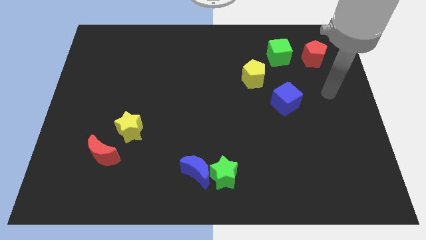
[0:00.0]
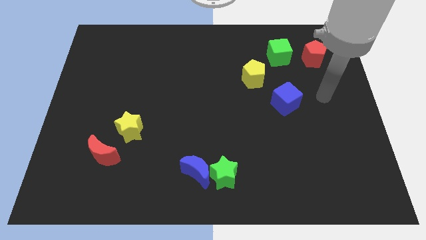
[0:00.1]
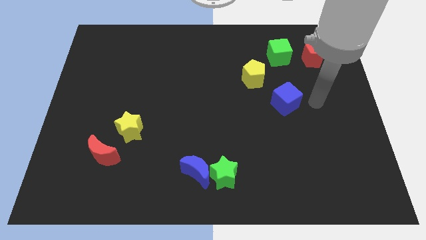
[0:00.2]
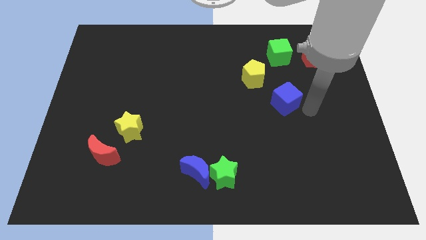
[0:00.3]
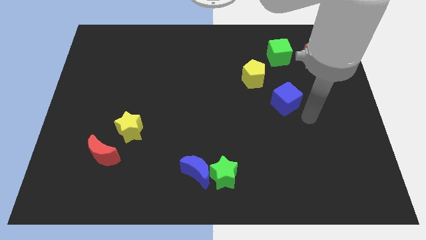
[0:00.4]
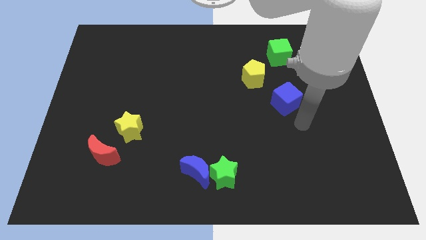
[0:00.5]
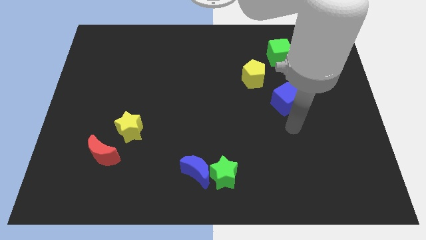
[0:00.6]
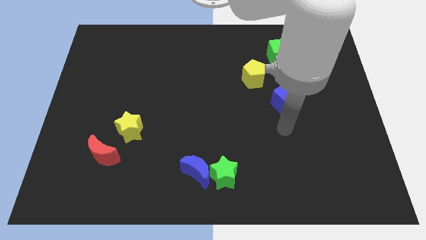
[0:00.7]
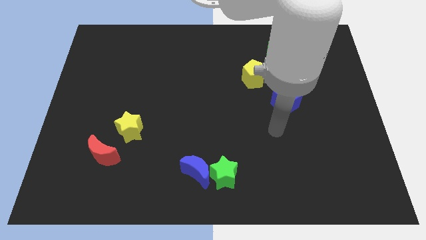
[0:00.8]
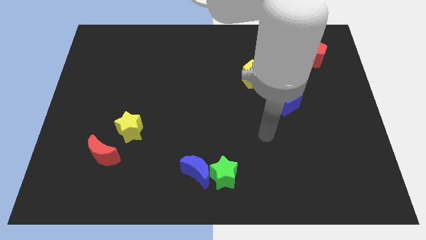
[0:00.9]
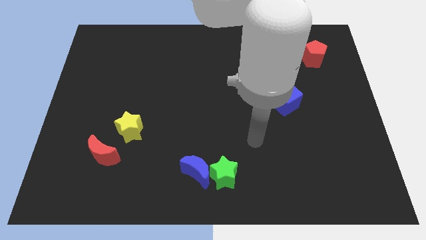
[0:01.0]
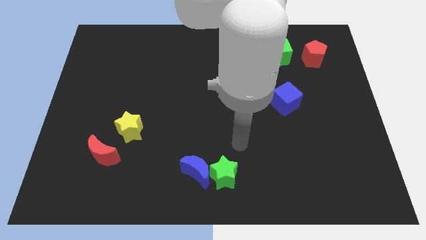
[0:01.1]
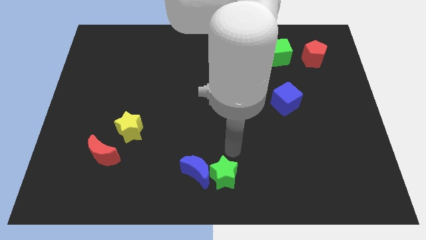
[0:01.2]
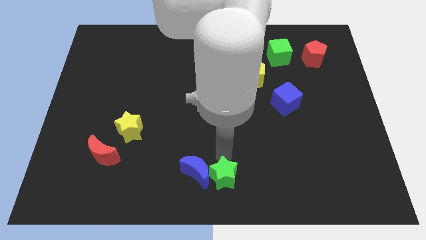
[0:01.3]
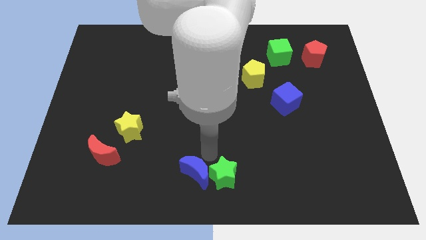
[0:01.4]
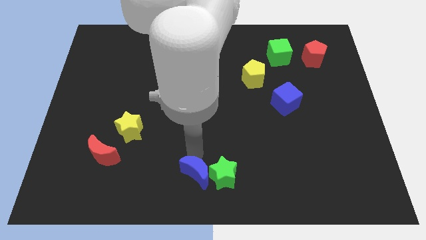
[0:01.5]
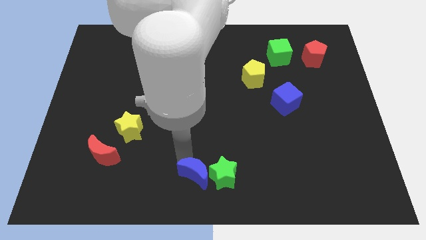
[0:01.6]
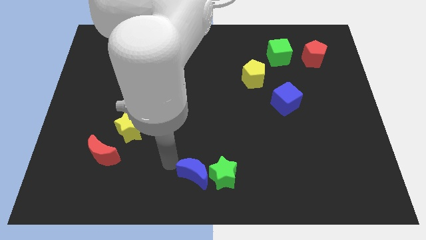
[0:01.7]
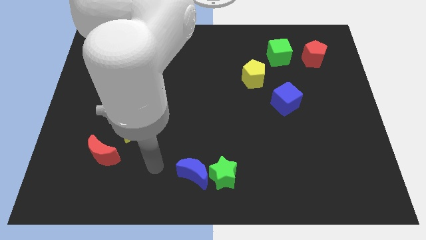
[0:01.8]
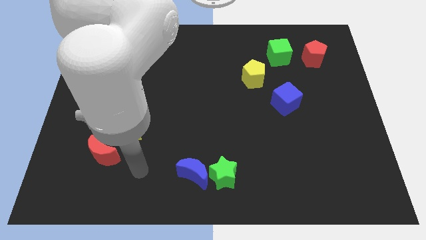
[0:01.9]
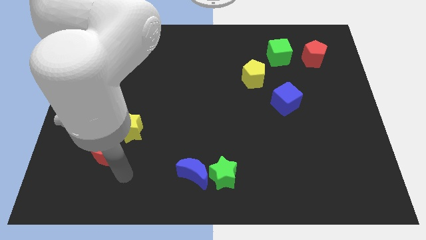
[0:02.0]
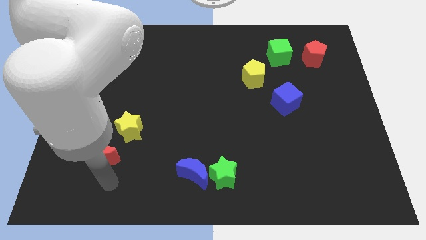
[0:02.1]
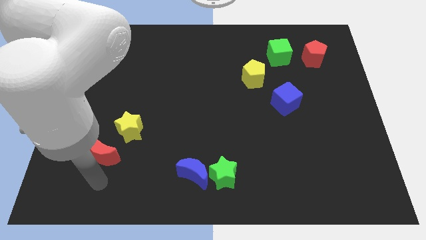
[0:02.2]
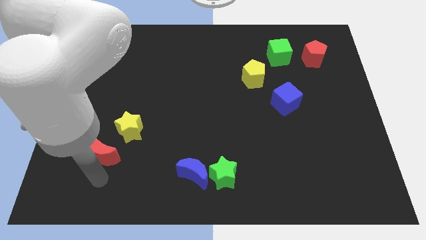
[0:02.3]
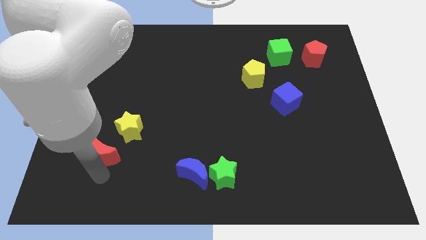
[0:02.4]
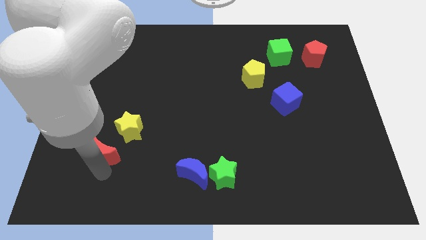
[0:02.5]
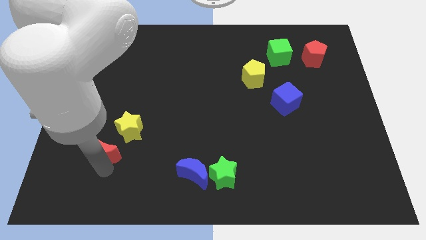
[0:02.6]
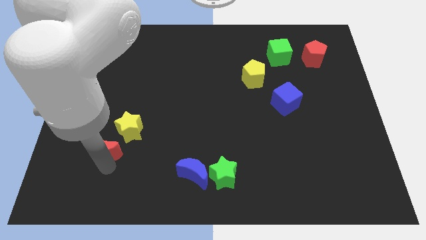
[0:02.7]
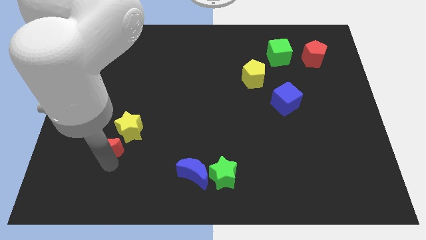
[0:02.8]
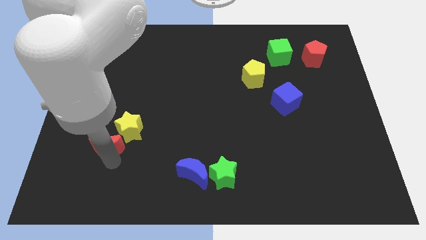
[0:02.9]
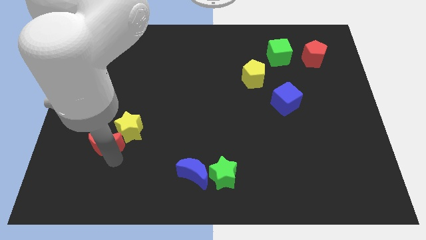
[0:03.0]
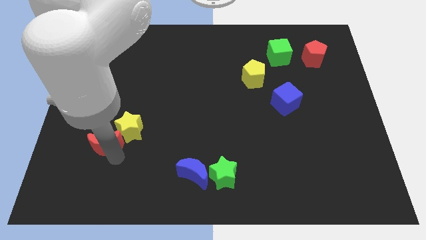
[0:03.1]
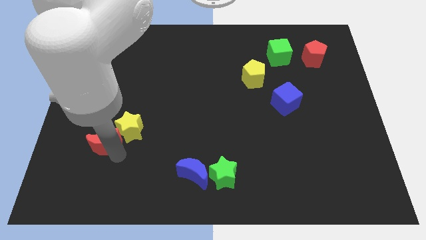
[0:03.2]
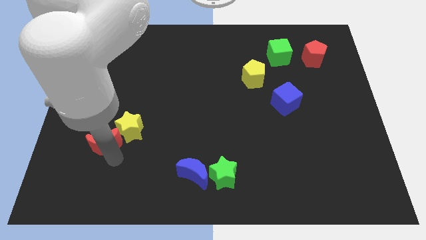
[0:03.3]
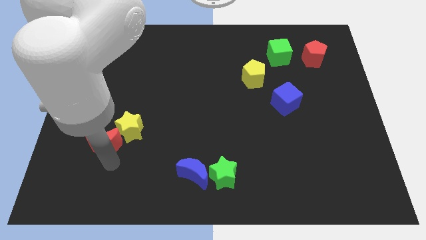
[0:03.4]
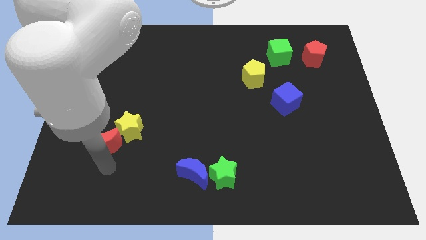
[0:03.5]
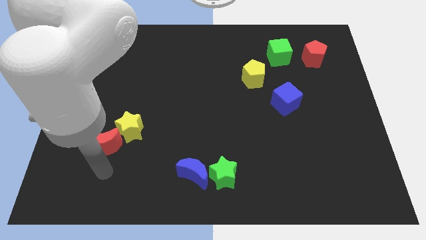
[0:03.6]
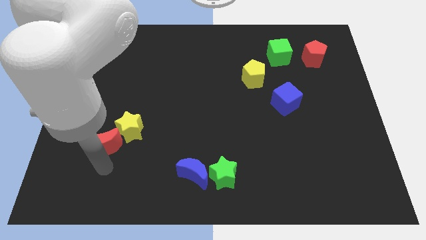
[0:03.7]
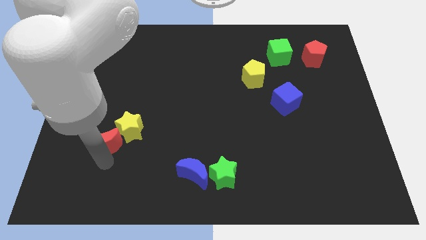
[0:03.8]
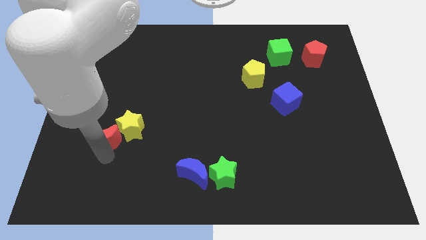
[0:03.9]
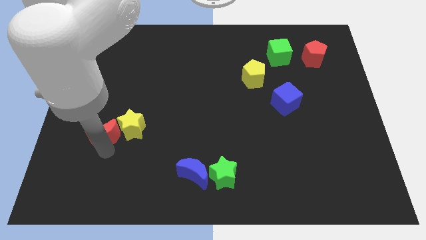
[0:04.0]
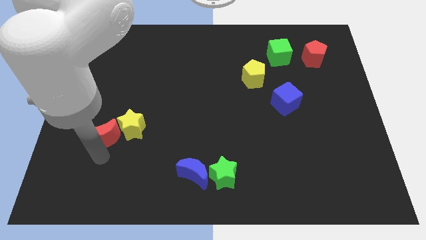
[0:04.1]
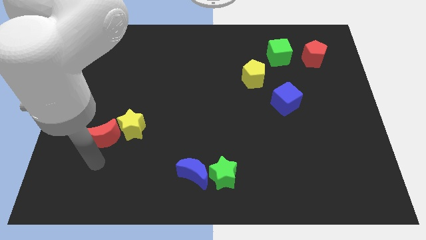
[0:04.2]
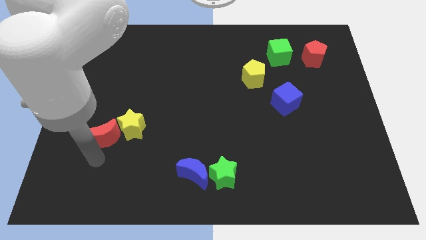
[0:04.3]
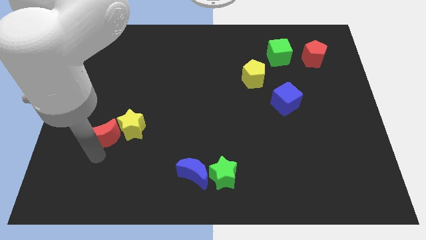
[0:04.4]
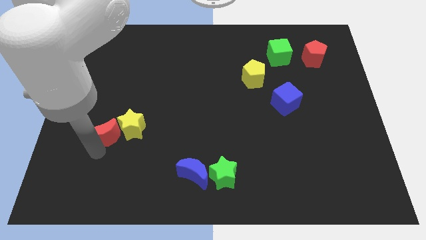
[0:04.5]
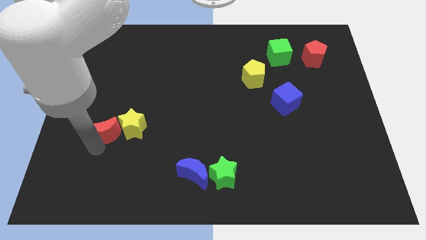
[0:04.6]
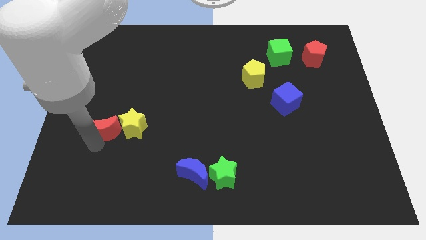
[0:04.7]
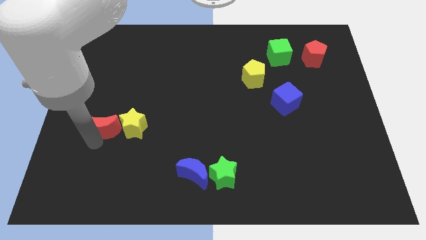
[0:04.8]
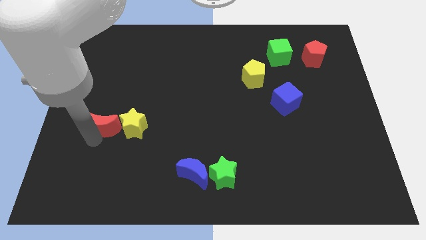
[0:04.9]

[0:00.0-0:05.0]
slightly move the red moon upwards

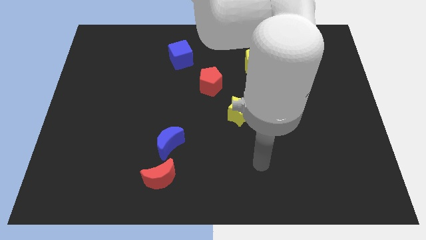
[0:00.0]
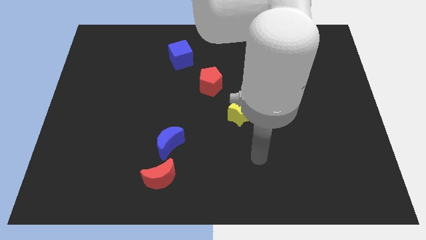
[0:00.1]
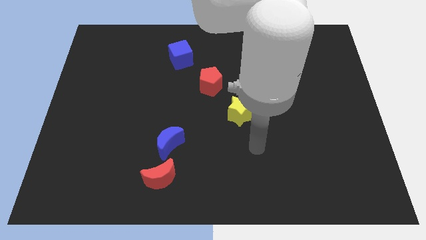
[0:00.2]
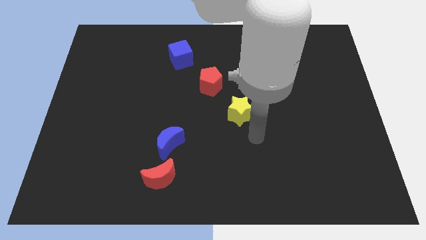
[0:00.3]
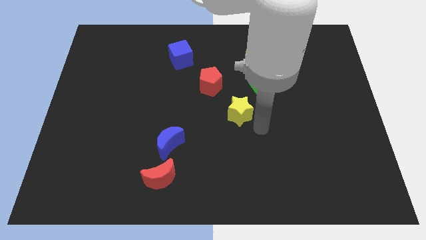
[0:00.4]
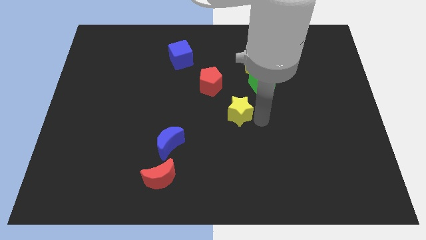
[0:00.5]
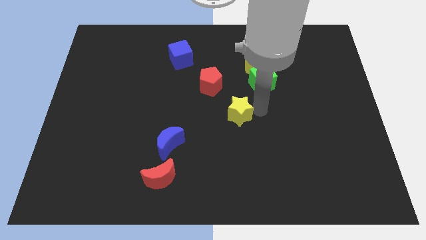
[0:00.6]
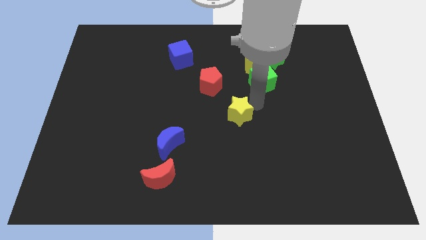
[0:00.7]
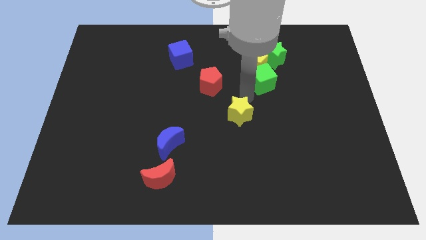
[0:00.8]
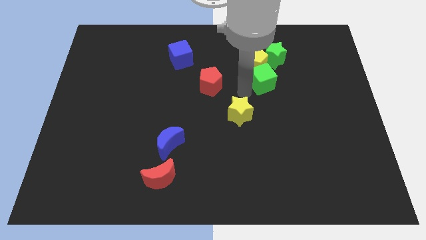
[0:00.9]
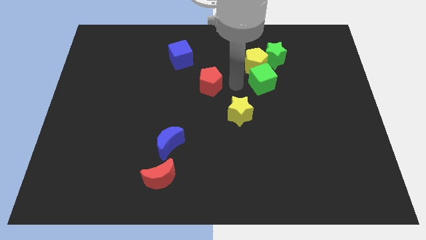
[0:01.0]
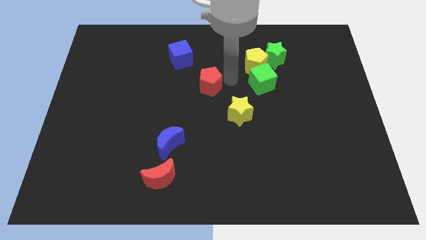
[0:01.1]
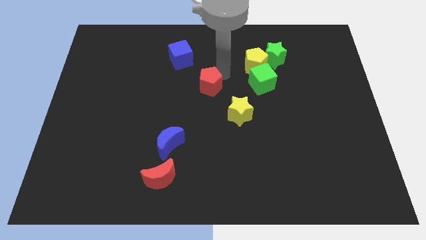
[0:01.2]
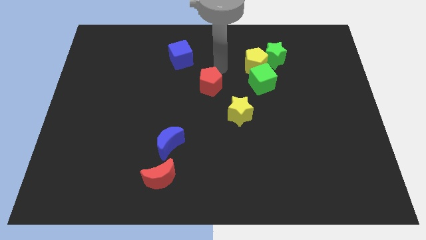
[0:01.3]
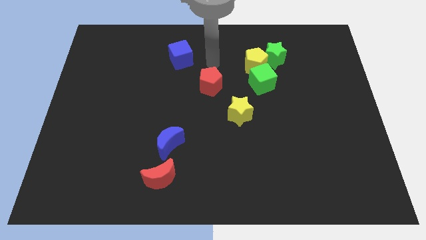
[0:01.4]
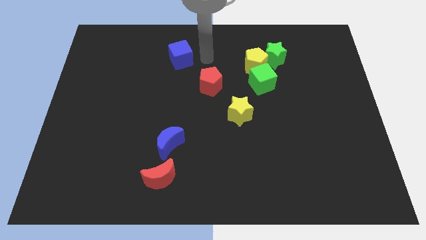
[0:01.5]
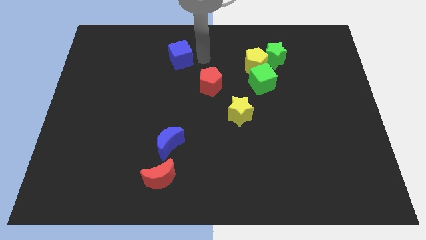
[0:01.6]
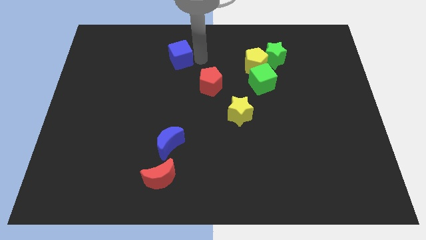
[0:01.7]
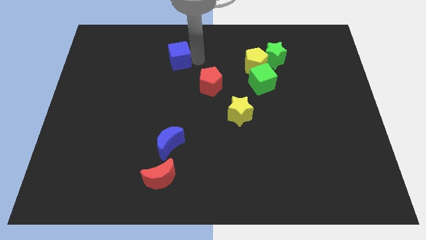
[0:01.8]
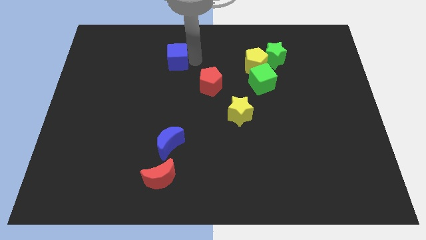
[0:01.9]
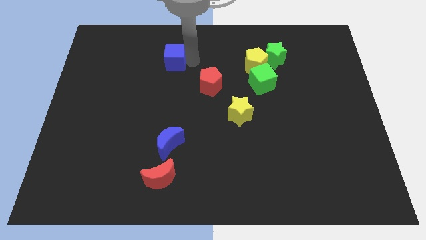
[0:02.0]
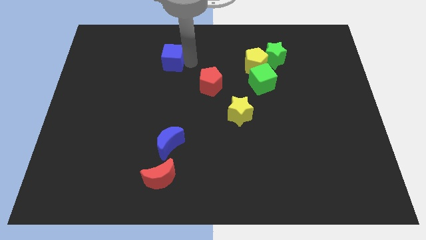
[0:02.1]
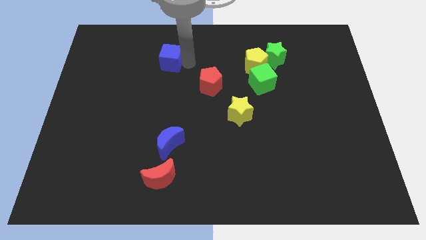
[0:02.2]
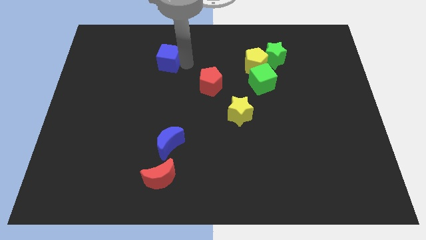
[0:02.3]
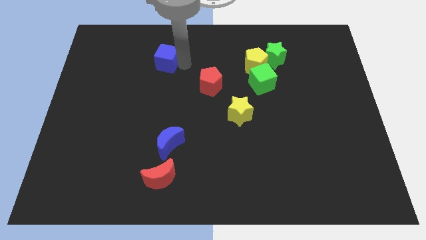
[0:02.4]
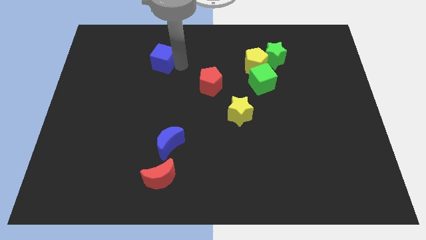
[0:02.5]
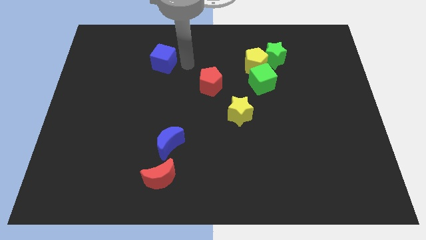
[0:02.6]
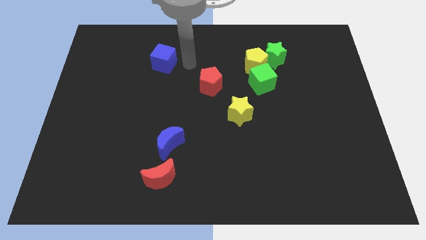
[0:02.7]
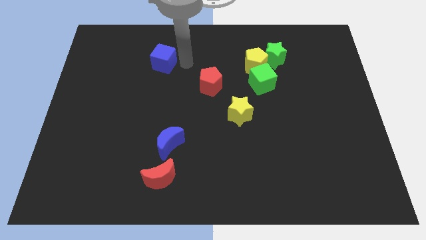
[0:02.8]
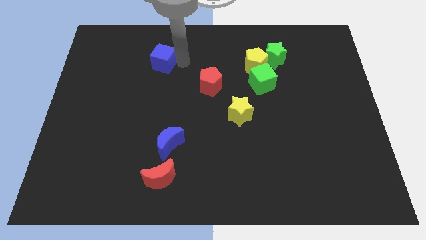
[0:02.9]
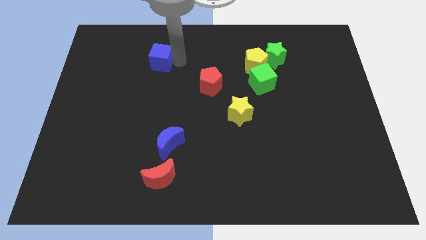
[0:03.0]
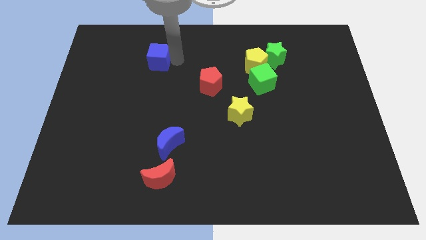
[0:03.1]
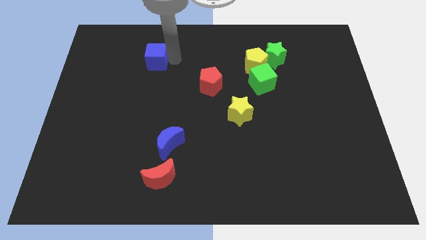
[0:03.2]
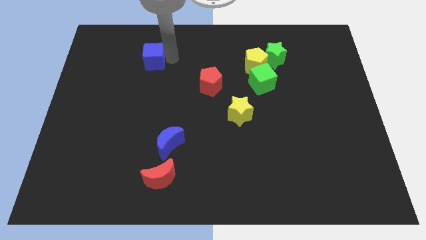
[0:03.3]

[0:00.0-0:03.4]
push the blue cube somewhat to the left

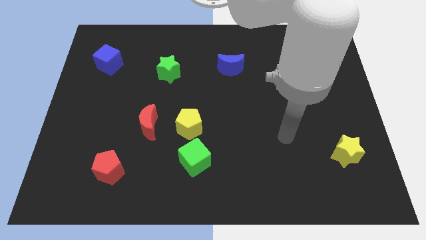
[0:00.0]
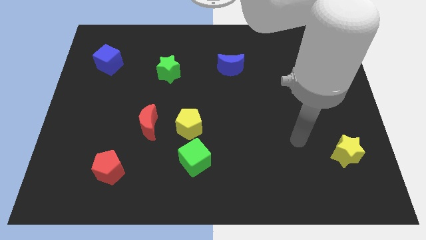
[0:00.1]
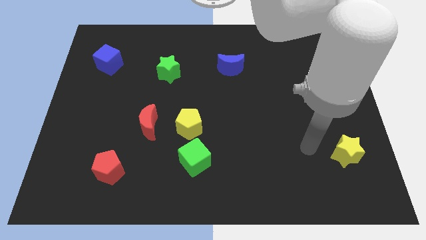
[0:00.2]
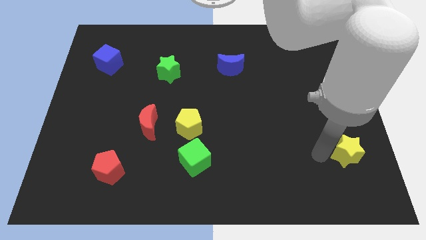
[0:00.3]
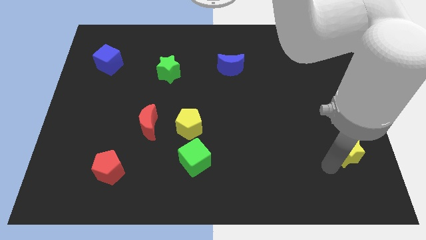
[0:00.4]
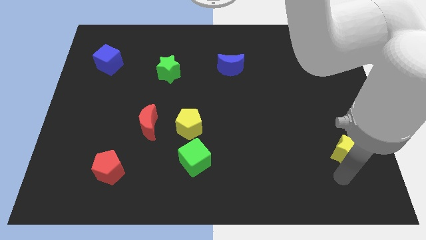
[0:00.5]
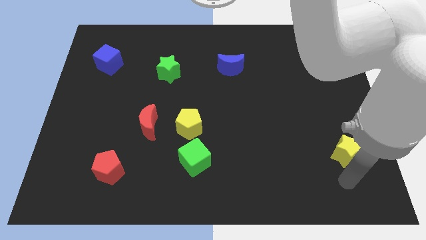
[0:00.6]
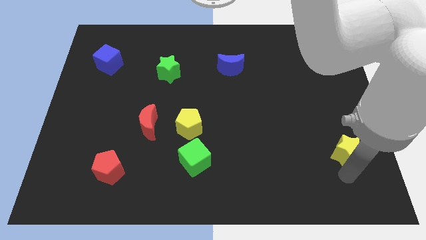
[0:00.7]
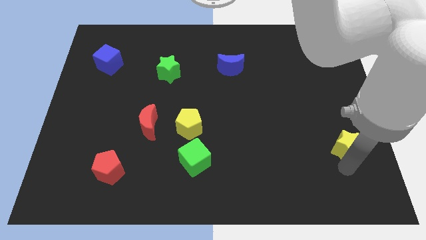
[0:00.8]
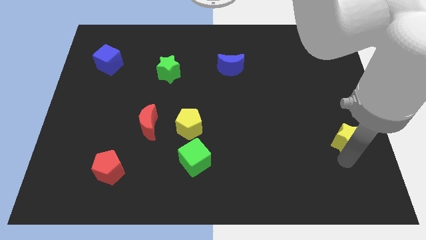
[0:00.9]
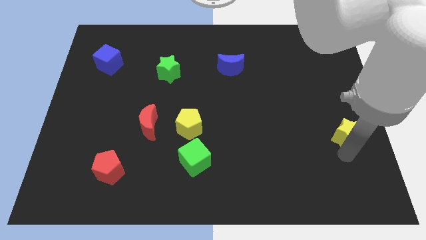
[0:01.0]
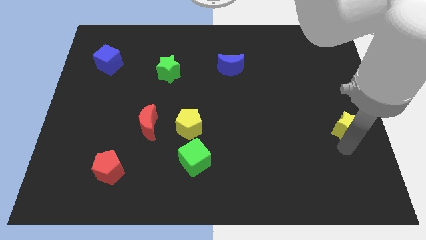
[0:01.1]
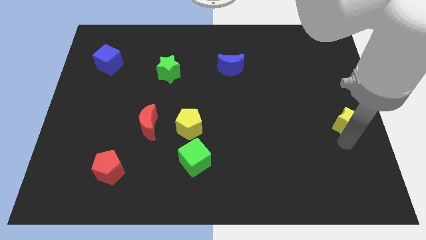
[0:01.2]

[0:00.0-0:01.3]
move the yellow star a bit up
